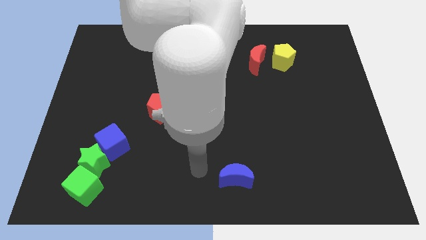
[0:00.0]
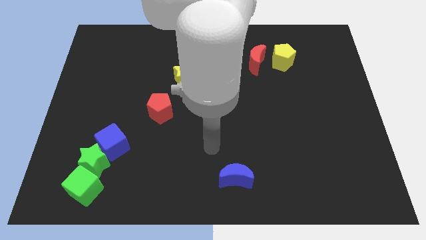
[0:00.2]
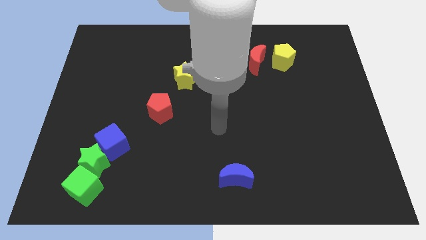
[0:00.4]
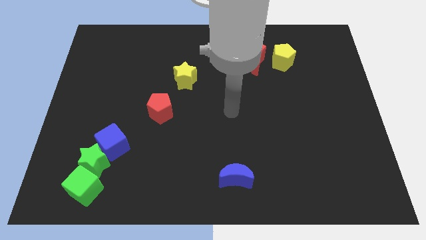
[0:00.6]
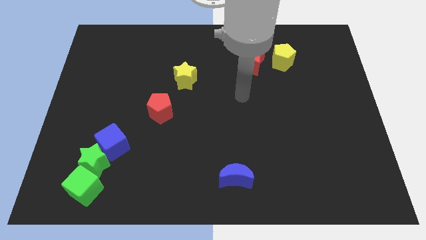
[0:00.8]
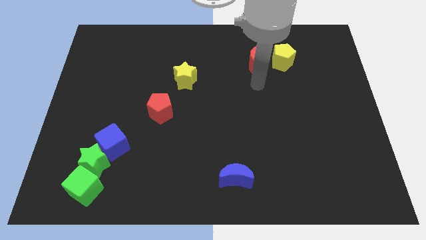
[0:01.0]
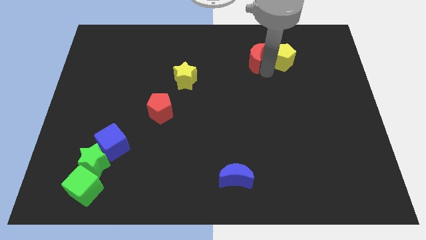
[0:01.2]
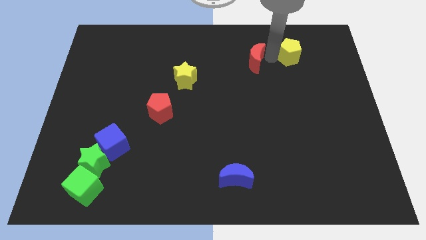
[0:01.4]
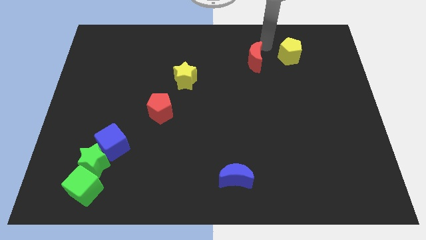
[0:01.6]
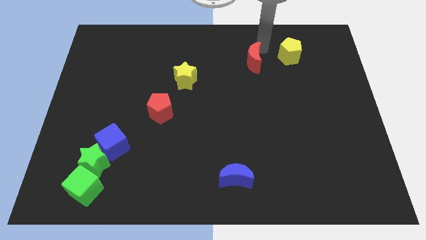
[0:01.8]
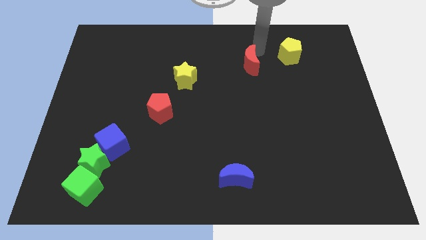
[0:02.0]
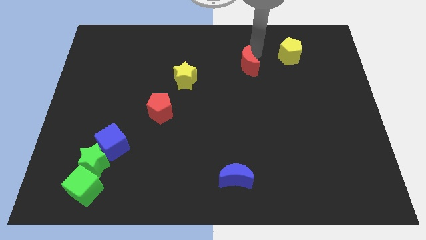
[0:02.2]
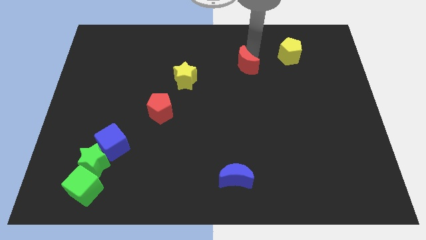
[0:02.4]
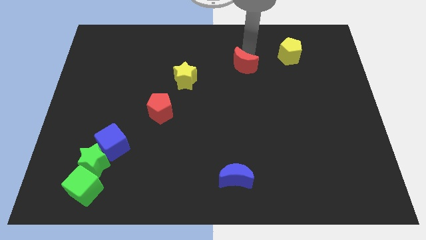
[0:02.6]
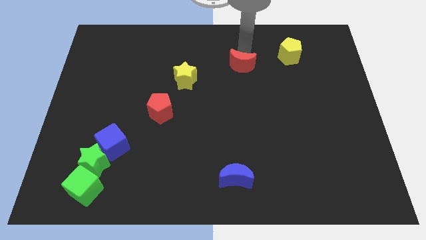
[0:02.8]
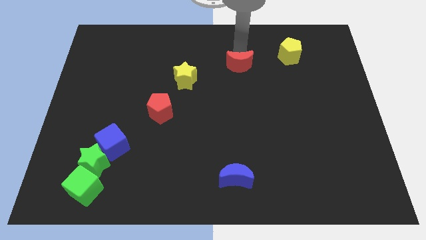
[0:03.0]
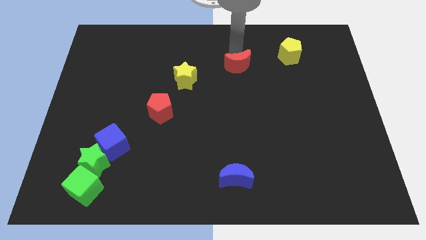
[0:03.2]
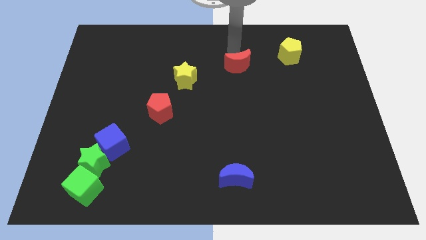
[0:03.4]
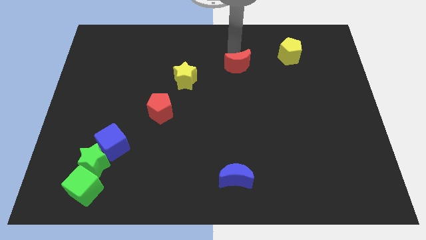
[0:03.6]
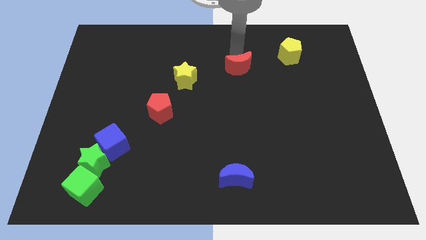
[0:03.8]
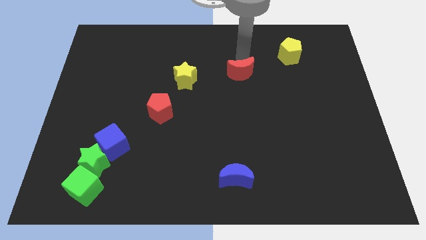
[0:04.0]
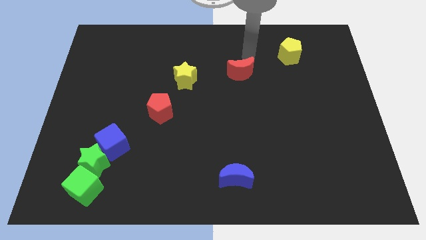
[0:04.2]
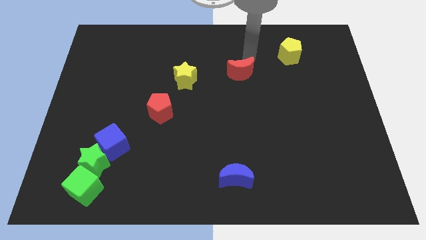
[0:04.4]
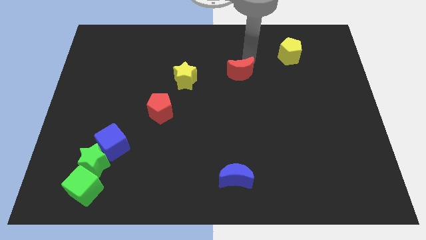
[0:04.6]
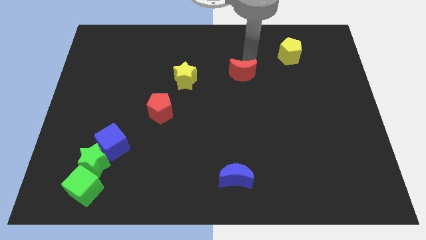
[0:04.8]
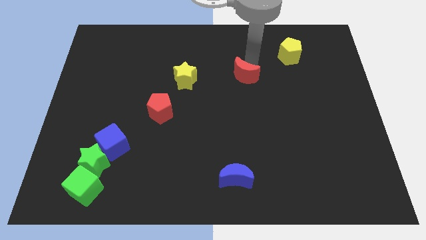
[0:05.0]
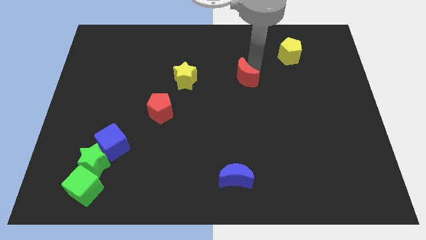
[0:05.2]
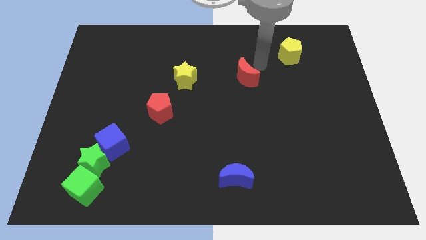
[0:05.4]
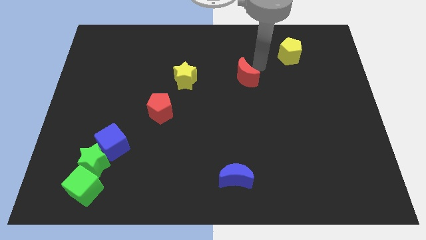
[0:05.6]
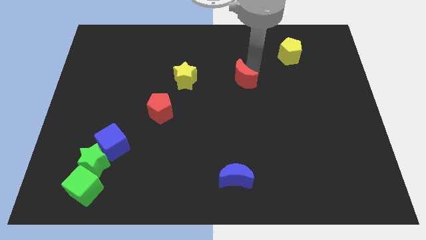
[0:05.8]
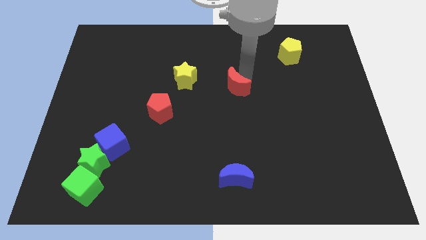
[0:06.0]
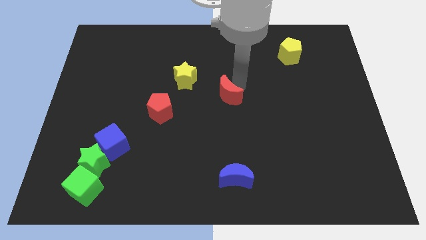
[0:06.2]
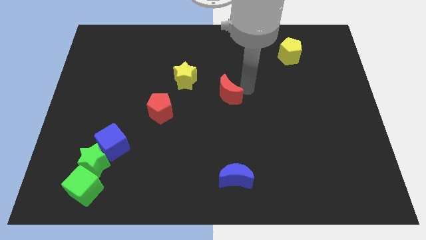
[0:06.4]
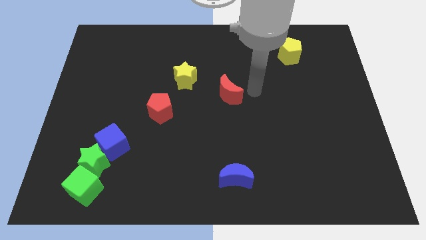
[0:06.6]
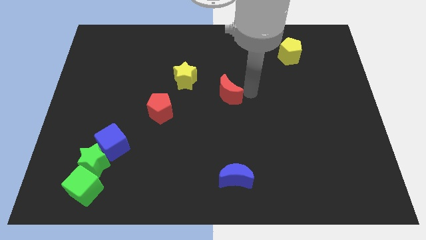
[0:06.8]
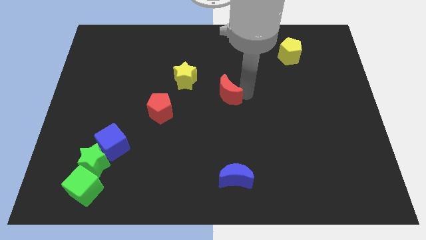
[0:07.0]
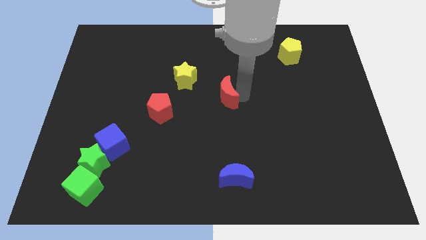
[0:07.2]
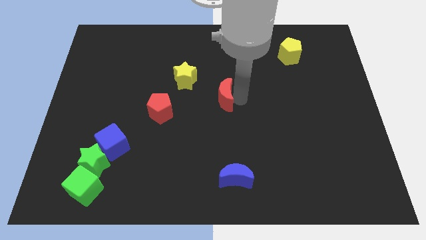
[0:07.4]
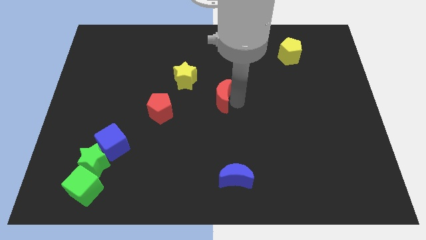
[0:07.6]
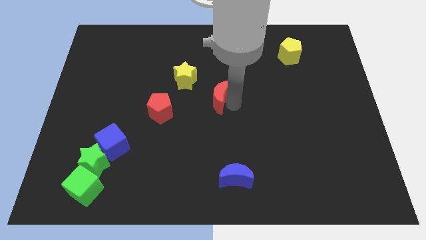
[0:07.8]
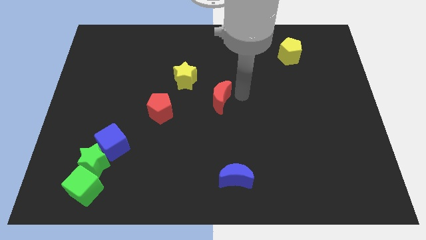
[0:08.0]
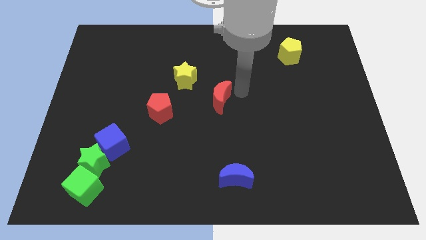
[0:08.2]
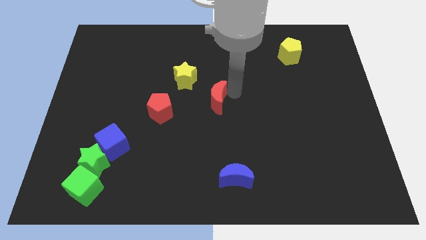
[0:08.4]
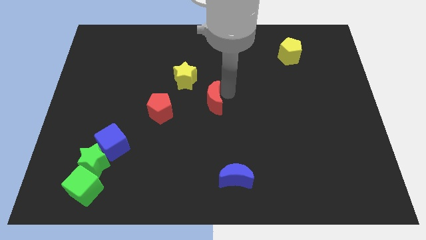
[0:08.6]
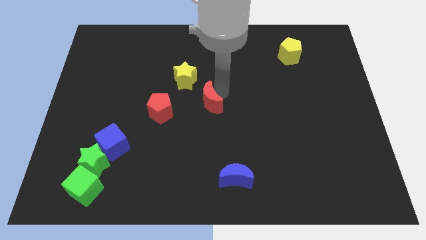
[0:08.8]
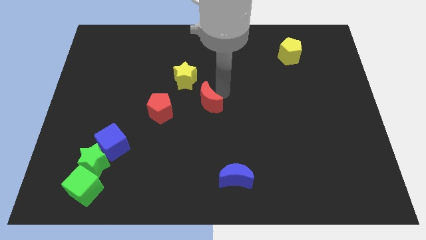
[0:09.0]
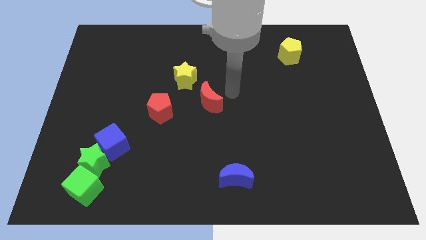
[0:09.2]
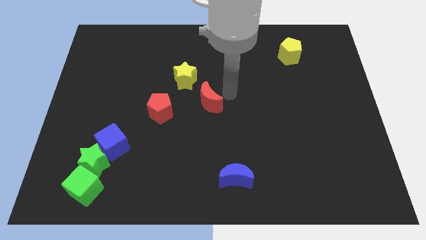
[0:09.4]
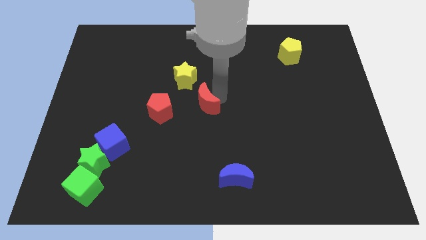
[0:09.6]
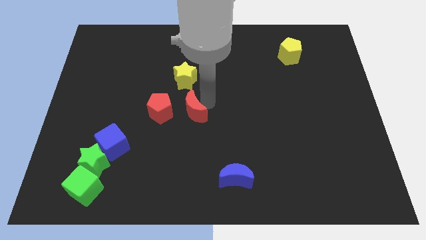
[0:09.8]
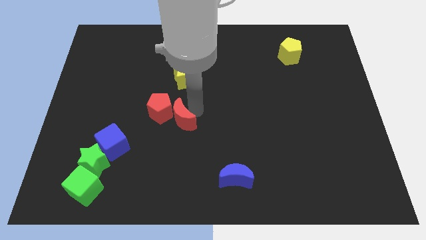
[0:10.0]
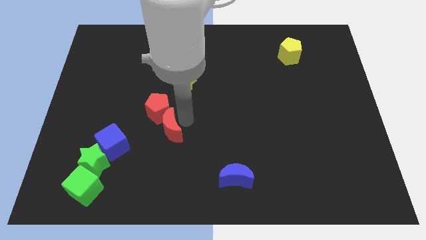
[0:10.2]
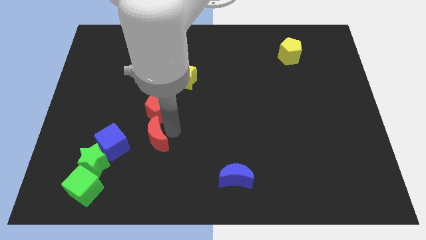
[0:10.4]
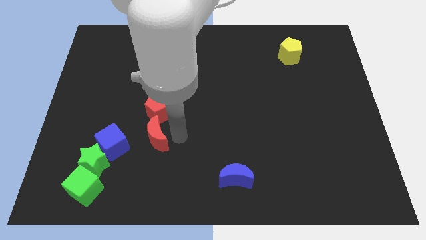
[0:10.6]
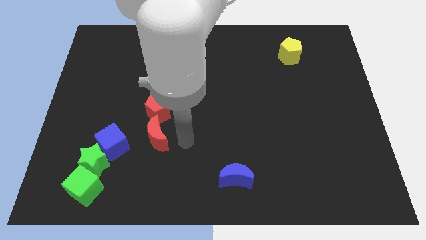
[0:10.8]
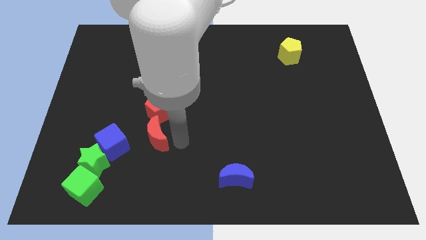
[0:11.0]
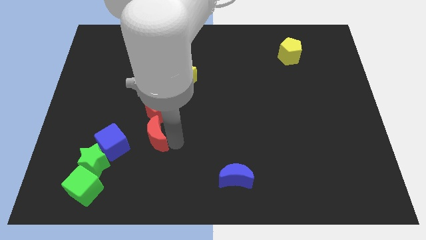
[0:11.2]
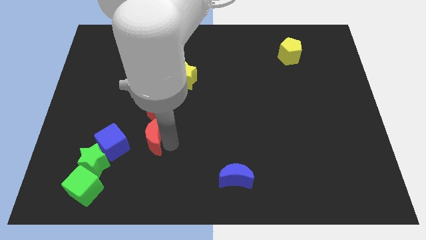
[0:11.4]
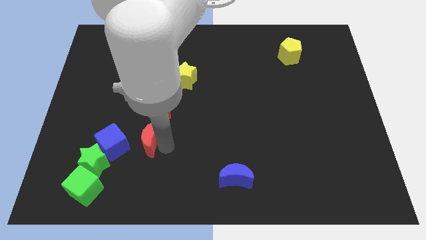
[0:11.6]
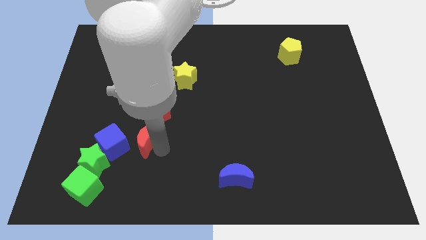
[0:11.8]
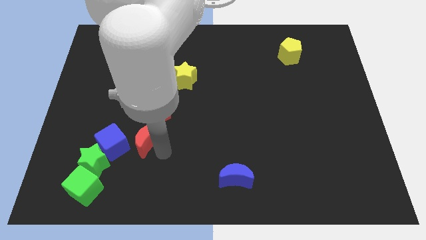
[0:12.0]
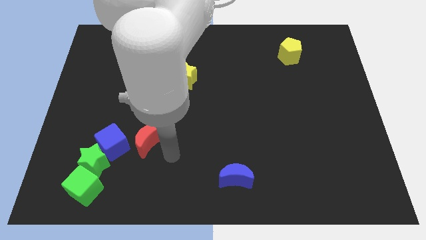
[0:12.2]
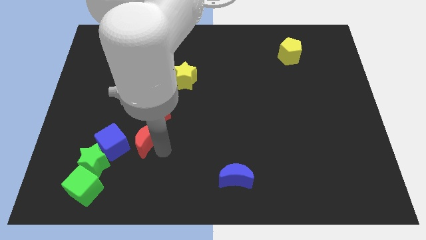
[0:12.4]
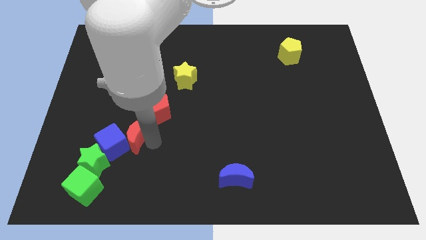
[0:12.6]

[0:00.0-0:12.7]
put the red moon close to the blue cube

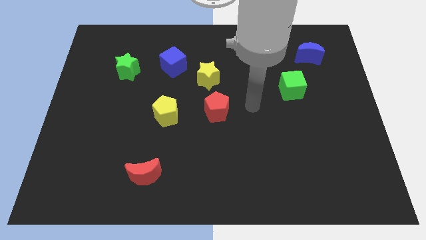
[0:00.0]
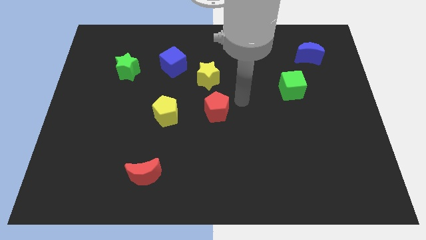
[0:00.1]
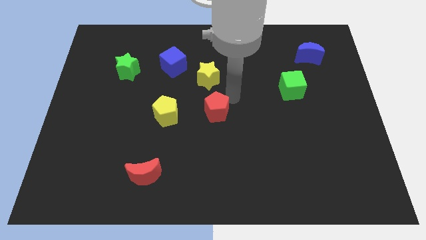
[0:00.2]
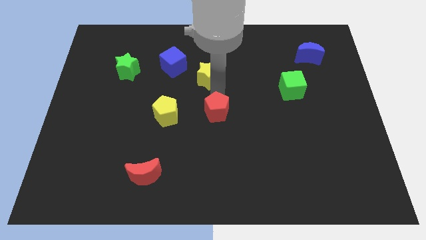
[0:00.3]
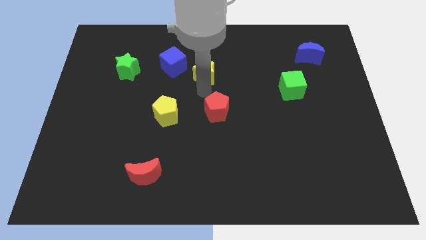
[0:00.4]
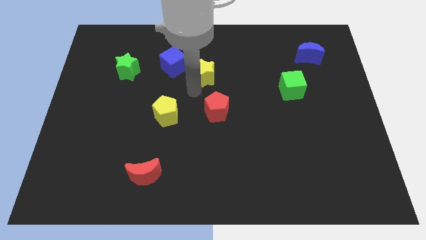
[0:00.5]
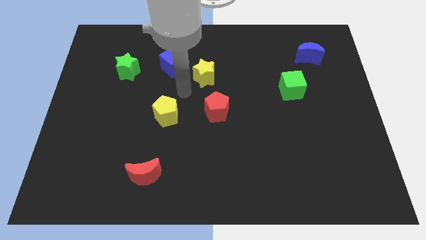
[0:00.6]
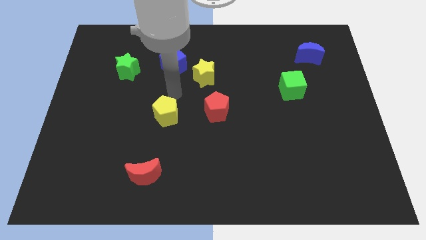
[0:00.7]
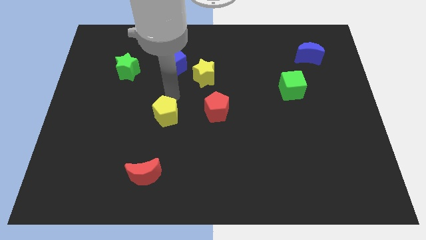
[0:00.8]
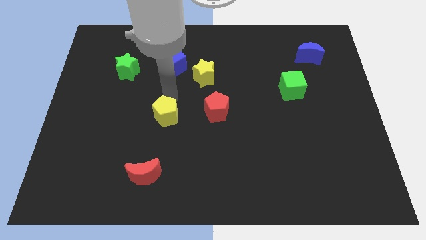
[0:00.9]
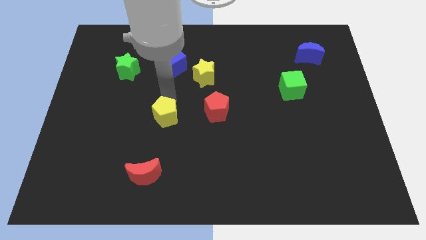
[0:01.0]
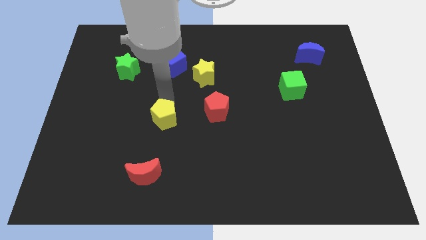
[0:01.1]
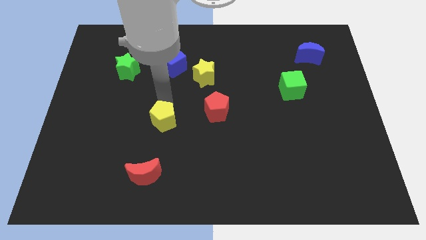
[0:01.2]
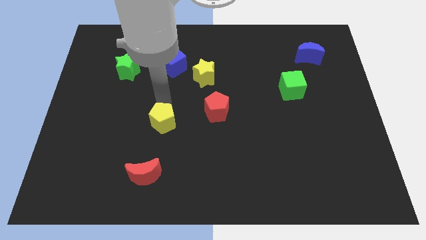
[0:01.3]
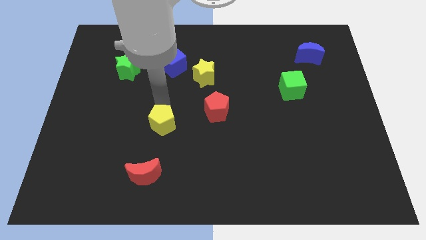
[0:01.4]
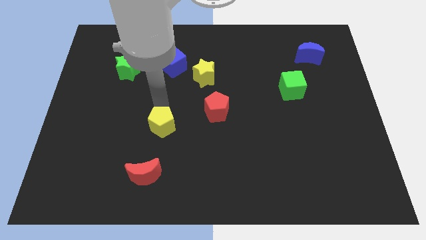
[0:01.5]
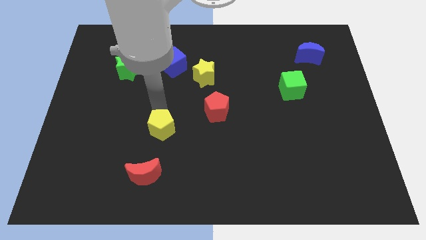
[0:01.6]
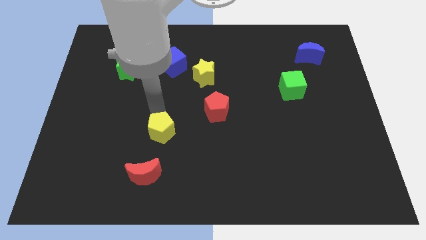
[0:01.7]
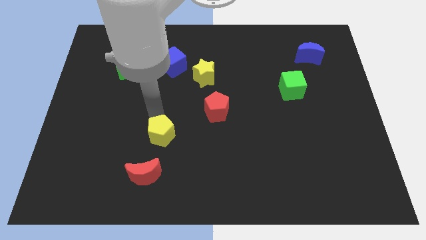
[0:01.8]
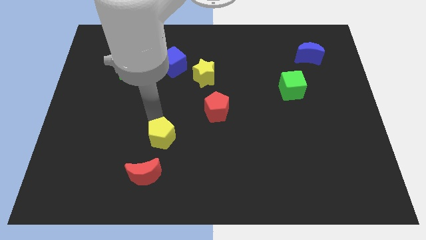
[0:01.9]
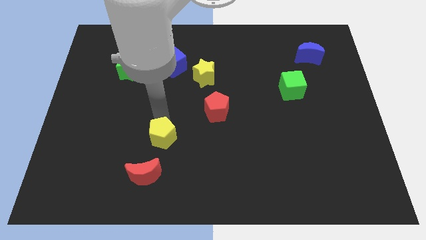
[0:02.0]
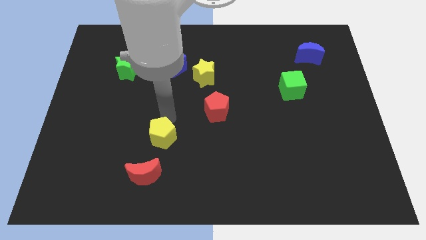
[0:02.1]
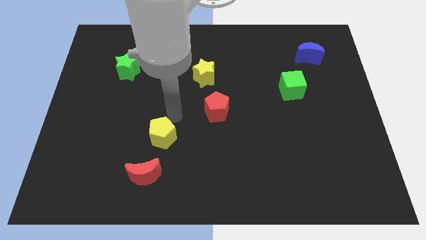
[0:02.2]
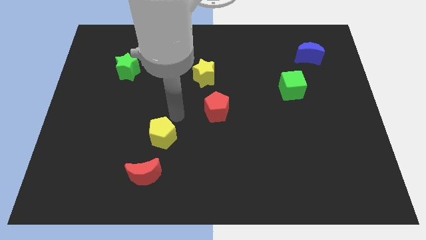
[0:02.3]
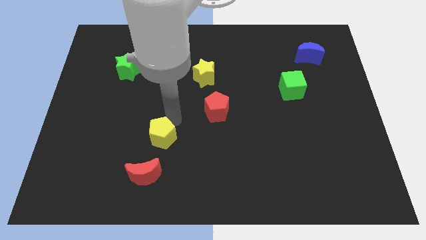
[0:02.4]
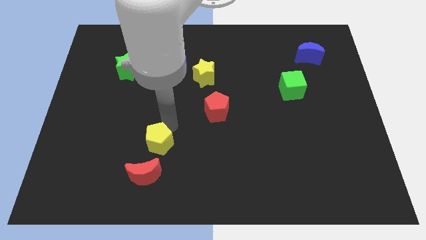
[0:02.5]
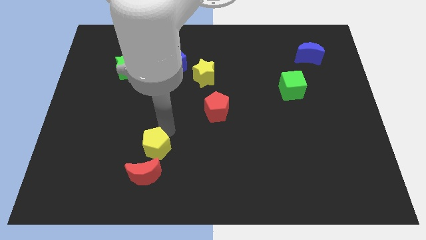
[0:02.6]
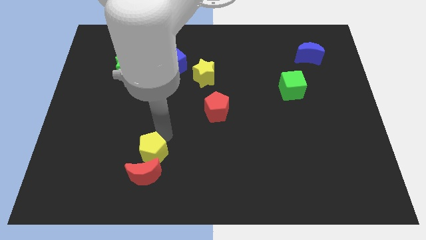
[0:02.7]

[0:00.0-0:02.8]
push the yellow pentagon close to the red moon
